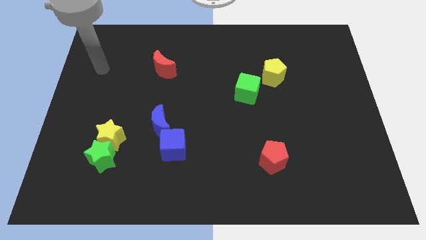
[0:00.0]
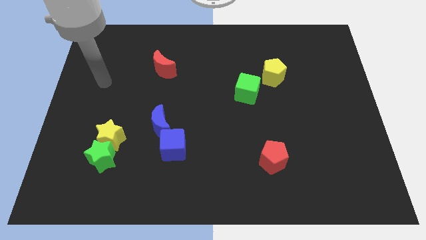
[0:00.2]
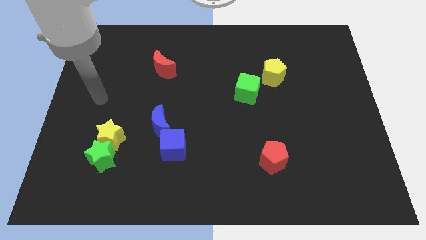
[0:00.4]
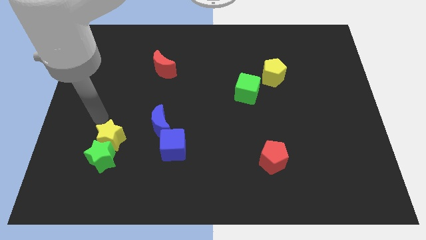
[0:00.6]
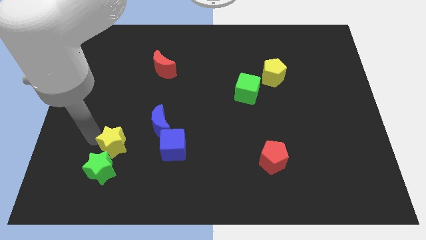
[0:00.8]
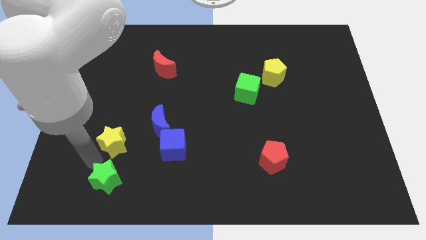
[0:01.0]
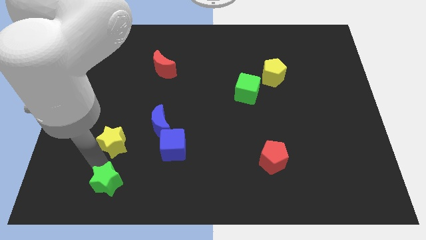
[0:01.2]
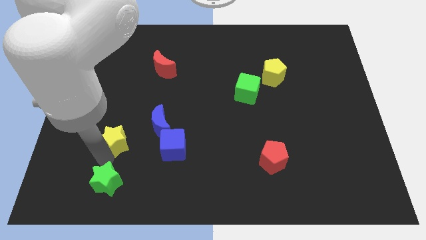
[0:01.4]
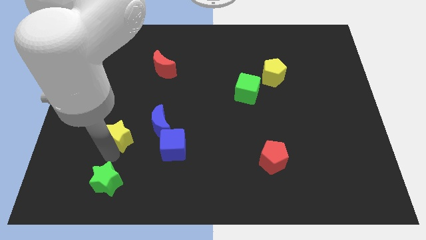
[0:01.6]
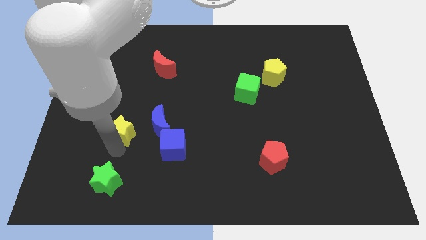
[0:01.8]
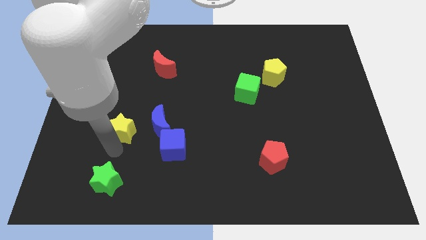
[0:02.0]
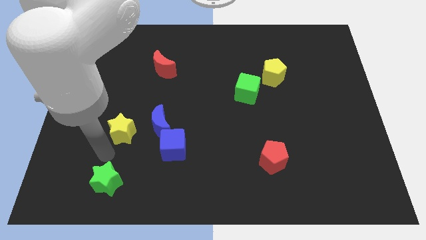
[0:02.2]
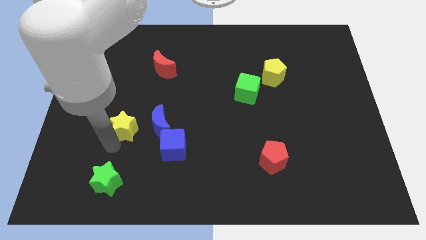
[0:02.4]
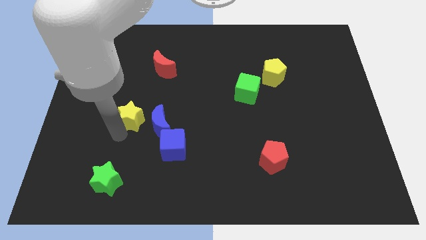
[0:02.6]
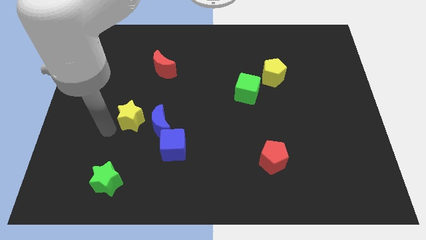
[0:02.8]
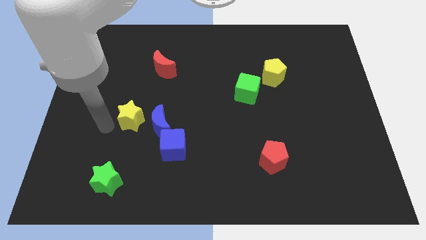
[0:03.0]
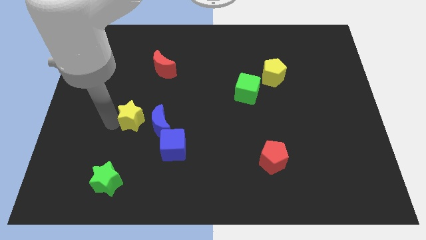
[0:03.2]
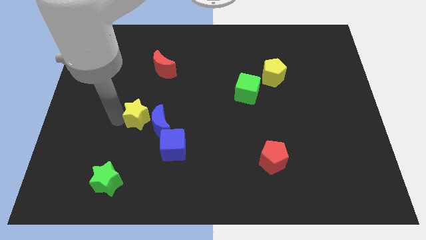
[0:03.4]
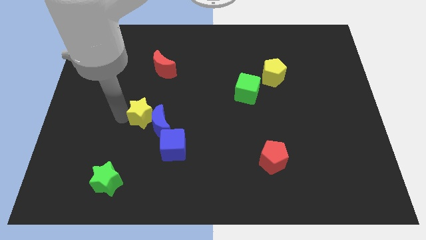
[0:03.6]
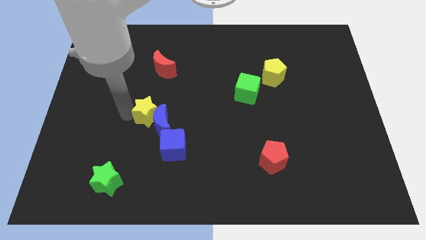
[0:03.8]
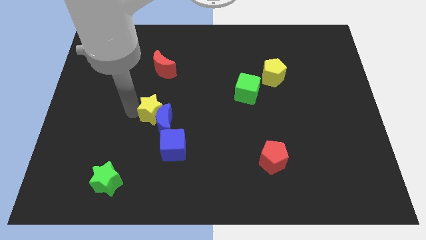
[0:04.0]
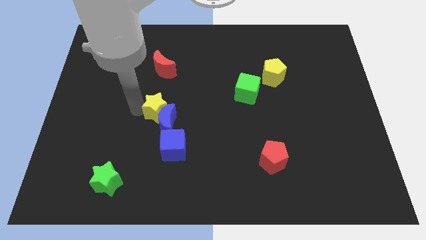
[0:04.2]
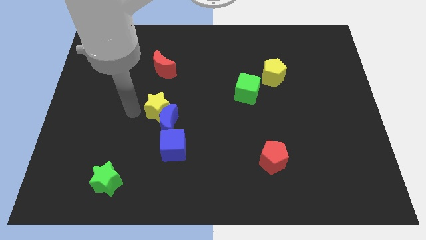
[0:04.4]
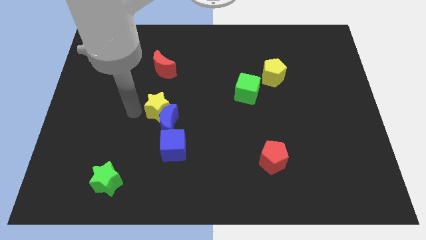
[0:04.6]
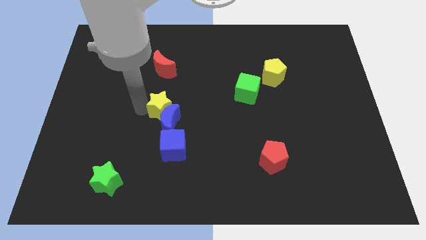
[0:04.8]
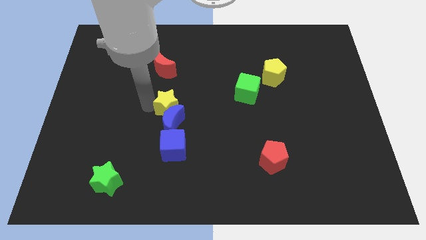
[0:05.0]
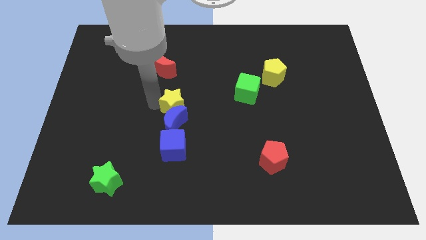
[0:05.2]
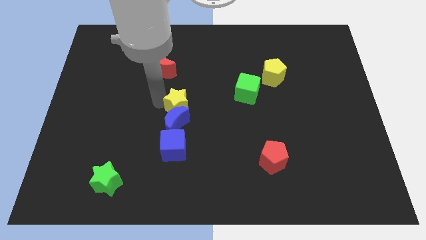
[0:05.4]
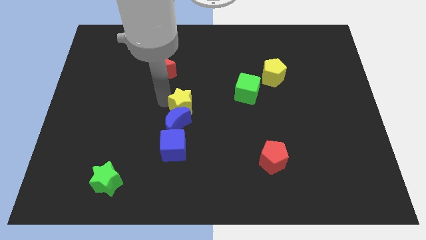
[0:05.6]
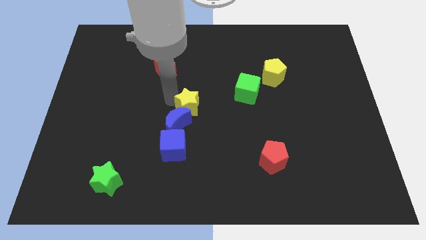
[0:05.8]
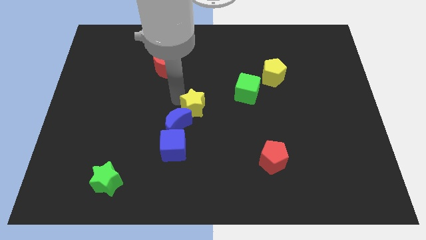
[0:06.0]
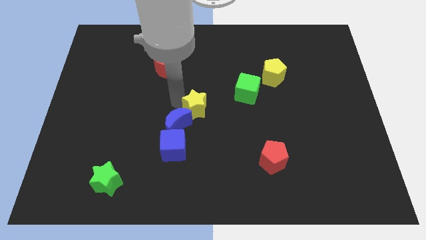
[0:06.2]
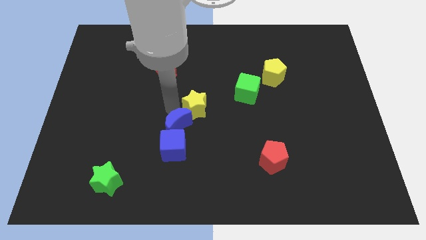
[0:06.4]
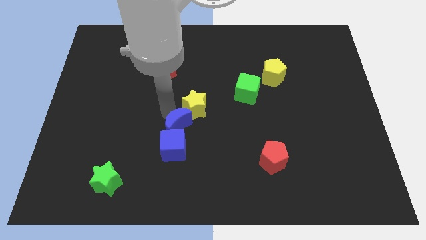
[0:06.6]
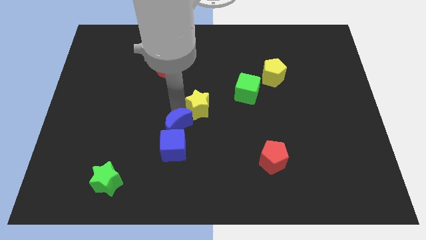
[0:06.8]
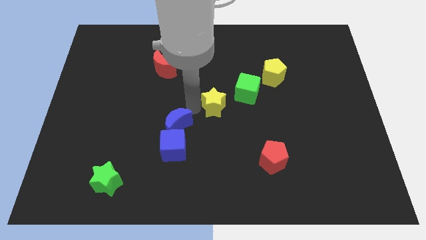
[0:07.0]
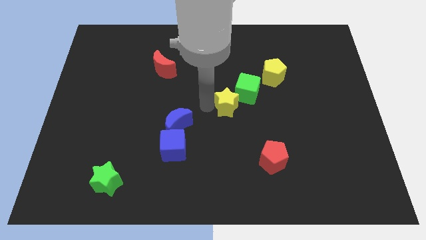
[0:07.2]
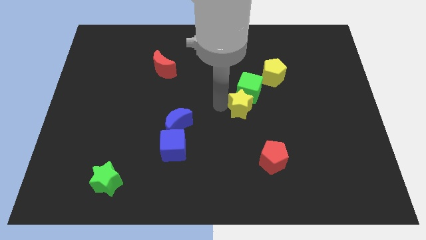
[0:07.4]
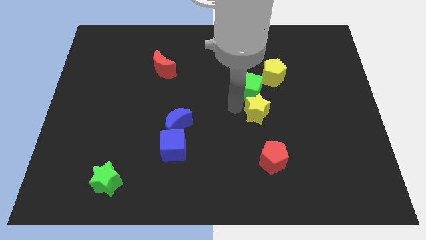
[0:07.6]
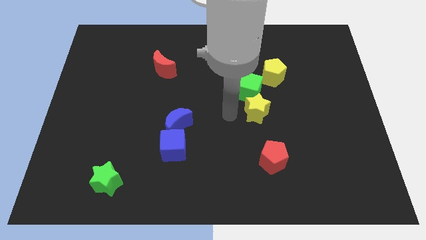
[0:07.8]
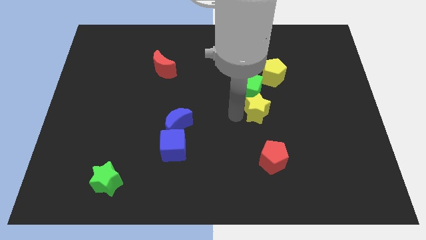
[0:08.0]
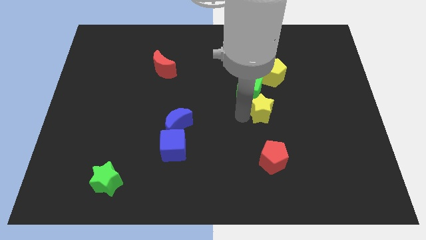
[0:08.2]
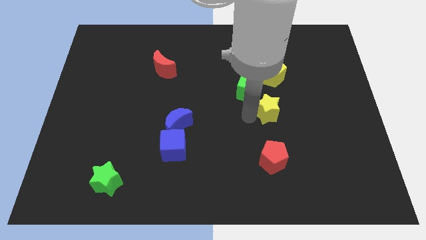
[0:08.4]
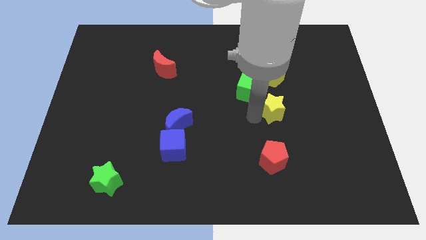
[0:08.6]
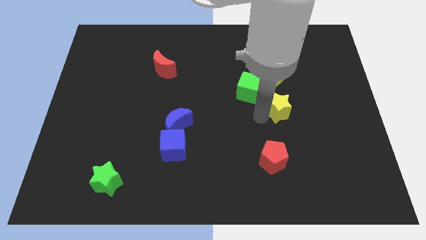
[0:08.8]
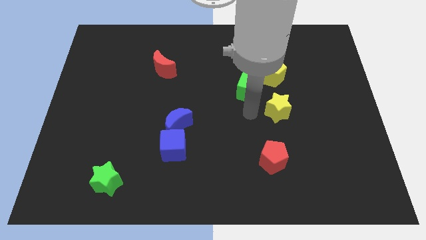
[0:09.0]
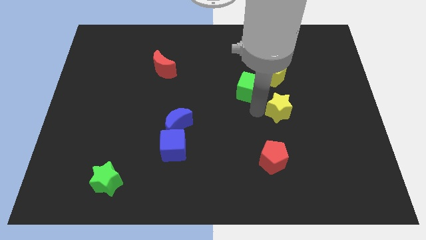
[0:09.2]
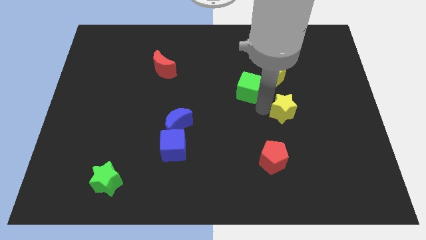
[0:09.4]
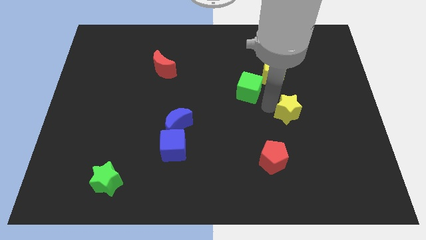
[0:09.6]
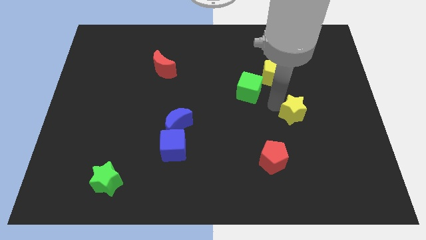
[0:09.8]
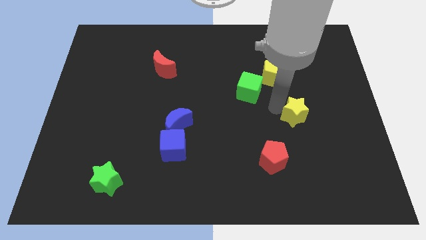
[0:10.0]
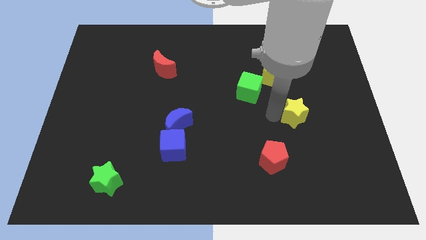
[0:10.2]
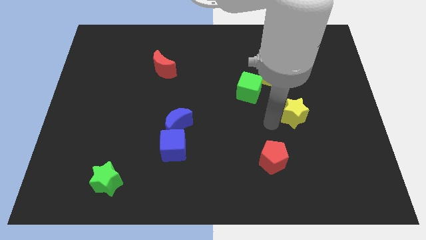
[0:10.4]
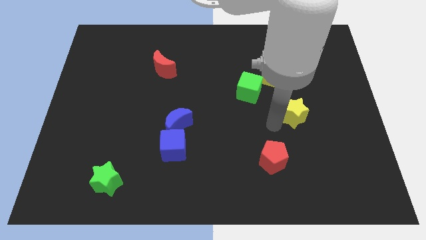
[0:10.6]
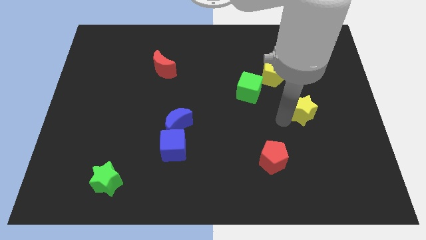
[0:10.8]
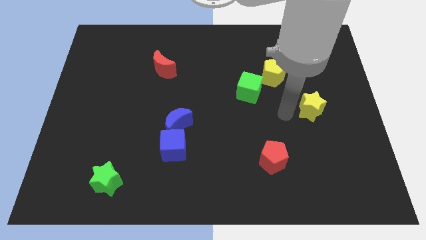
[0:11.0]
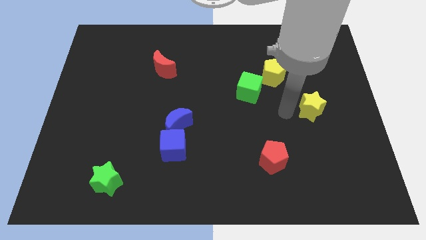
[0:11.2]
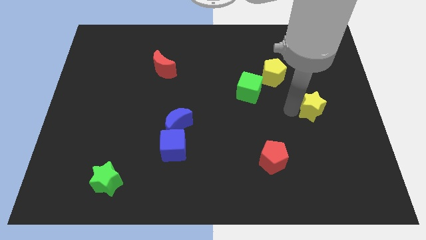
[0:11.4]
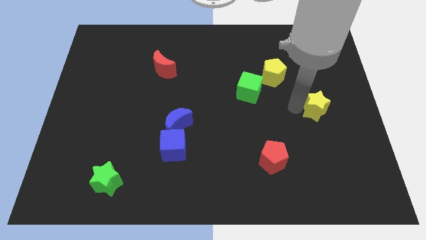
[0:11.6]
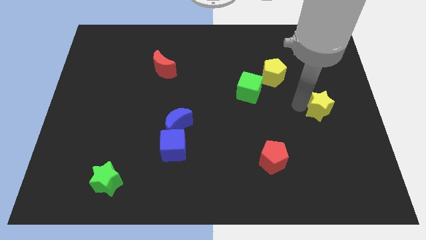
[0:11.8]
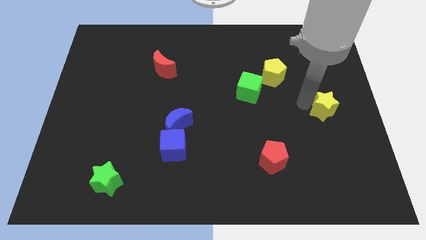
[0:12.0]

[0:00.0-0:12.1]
push the yellow star to the right side of the board

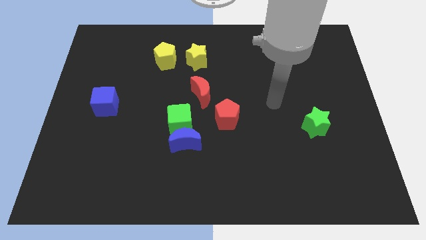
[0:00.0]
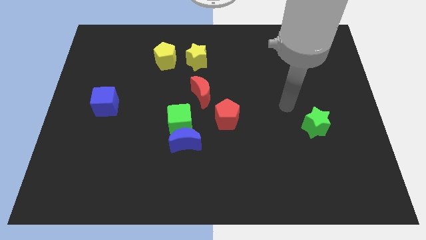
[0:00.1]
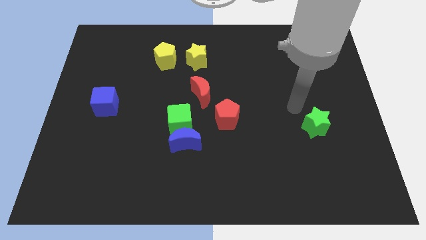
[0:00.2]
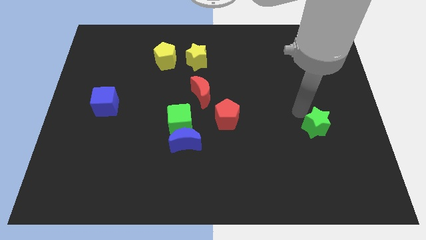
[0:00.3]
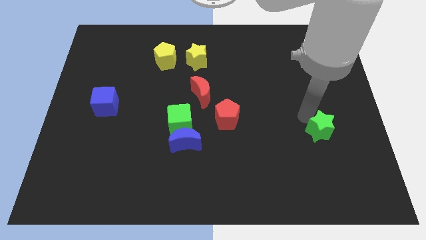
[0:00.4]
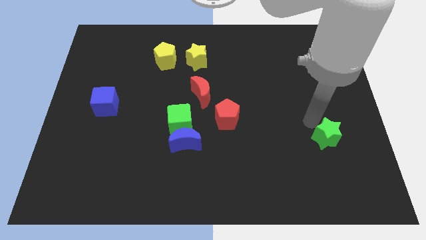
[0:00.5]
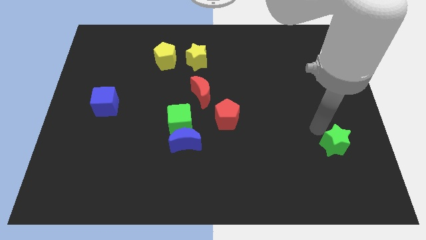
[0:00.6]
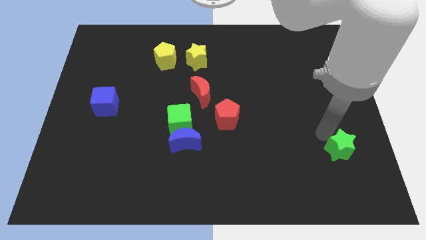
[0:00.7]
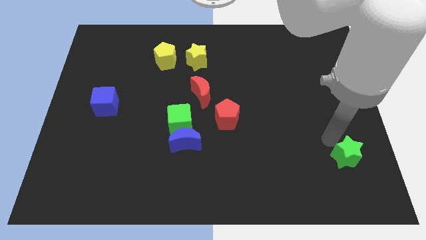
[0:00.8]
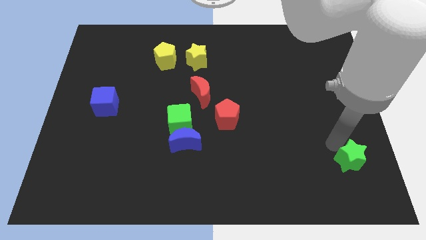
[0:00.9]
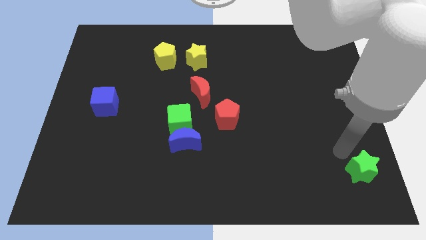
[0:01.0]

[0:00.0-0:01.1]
push the green star to the lower right corner
